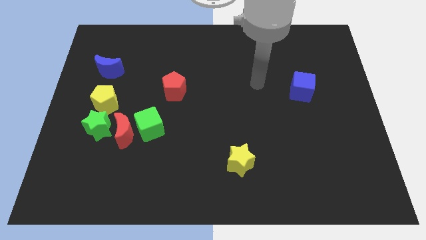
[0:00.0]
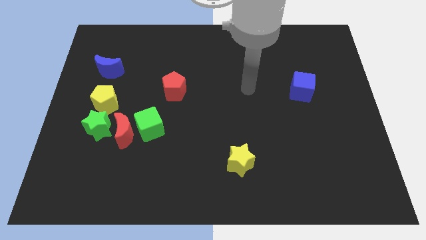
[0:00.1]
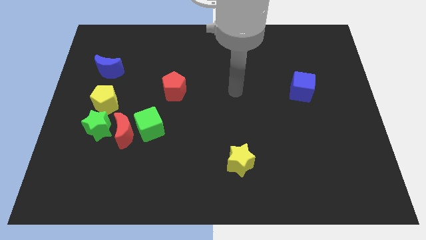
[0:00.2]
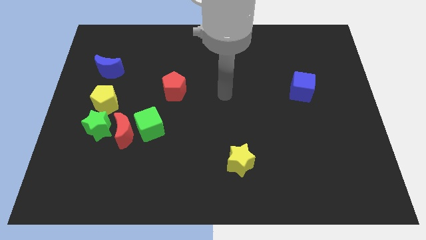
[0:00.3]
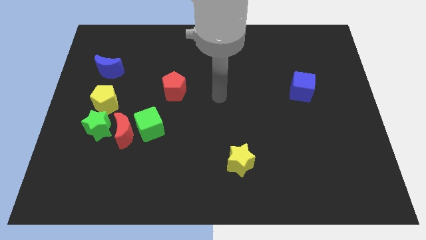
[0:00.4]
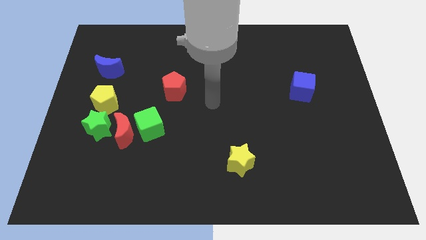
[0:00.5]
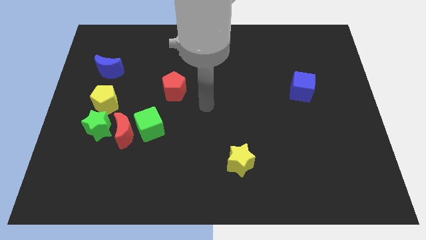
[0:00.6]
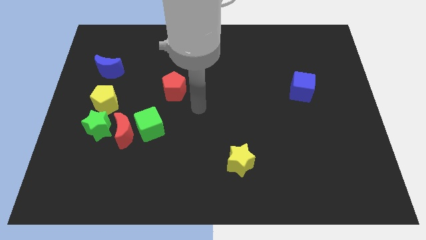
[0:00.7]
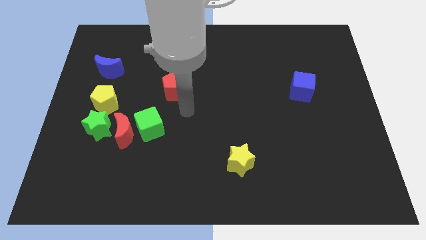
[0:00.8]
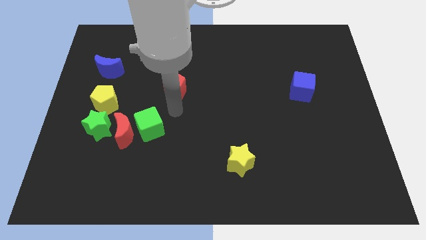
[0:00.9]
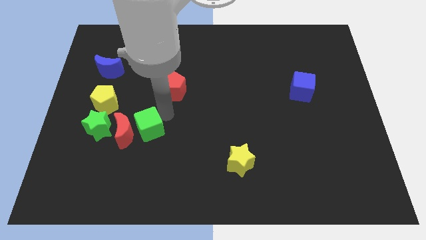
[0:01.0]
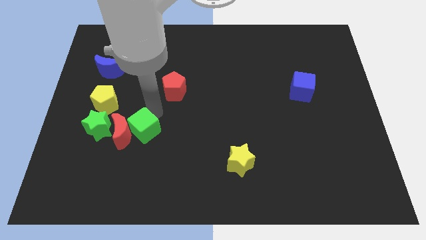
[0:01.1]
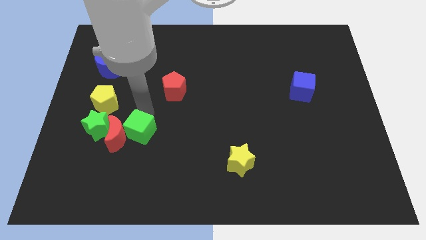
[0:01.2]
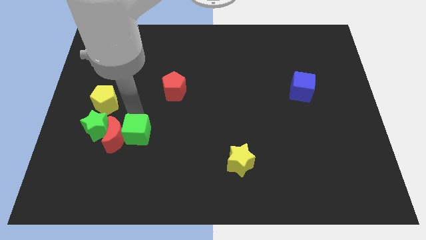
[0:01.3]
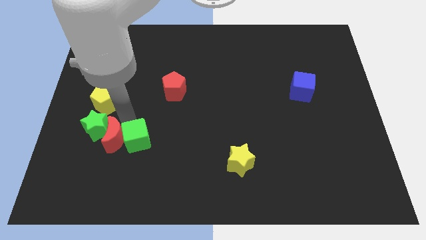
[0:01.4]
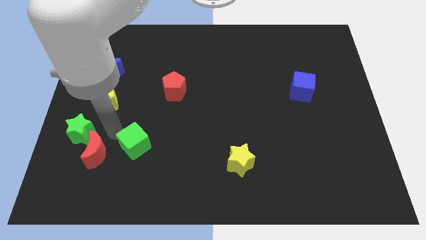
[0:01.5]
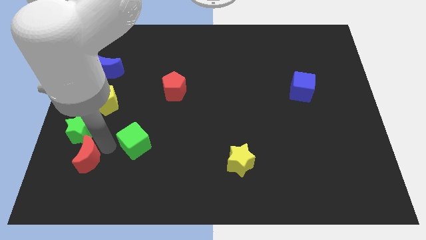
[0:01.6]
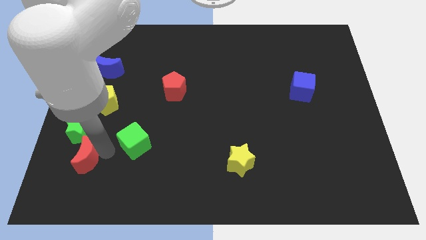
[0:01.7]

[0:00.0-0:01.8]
pull the green cube apart from the red moon

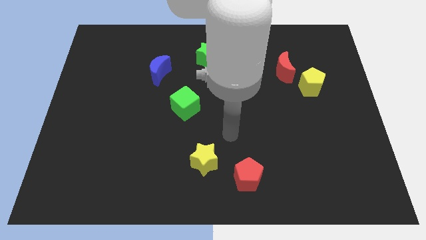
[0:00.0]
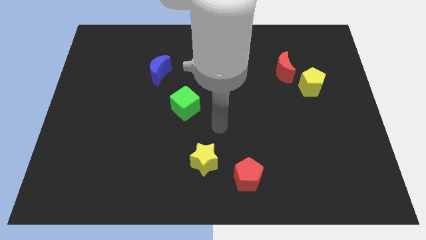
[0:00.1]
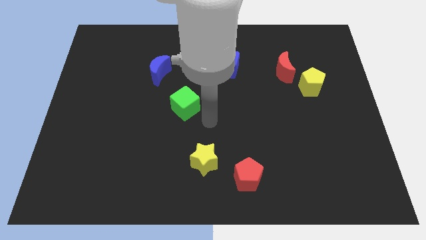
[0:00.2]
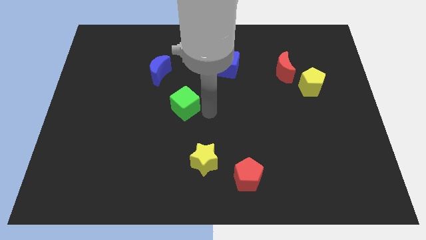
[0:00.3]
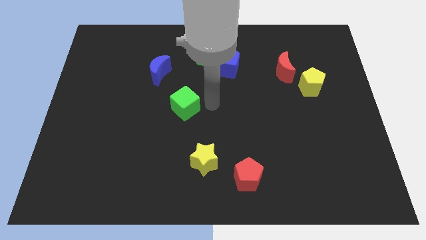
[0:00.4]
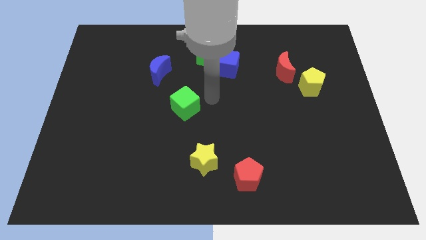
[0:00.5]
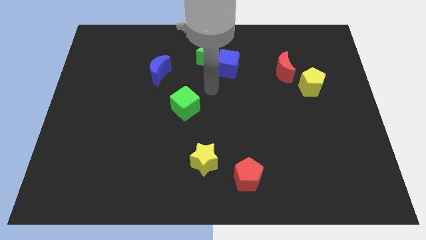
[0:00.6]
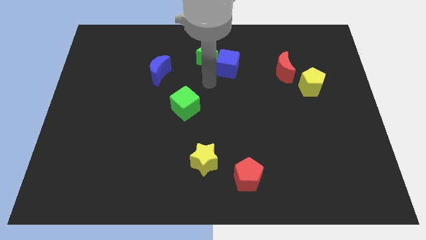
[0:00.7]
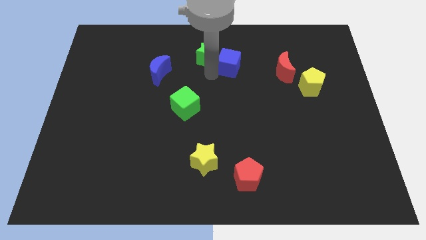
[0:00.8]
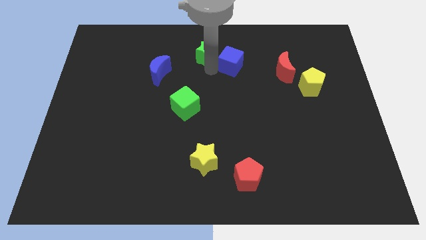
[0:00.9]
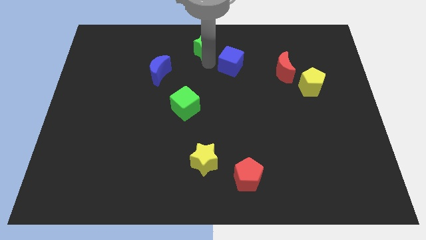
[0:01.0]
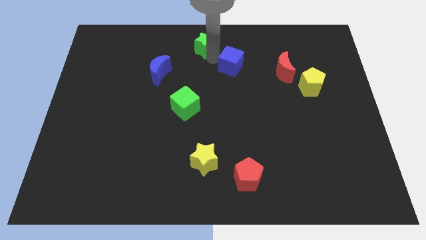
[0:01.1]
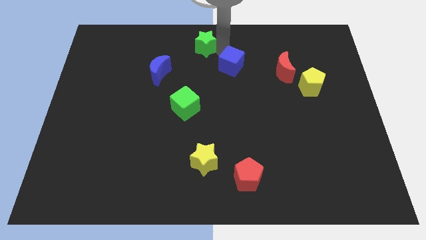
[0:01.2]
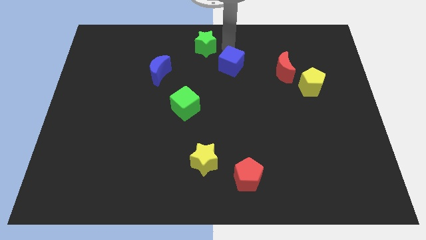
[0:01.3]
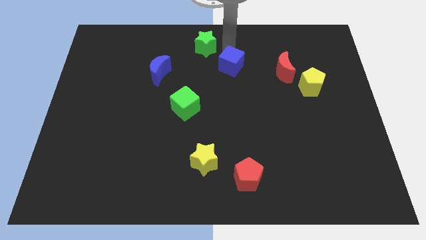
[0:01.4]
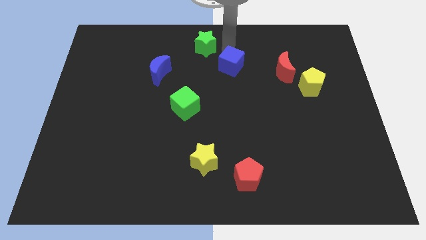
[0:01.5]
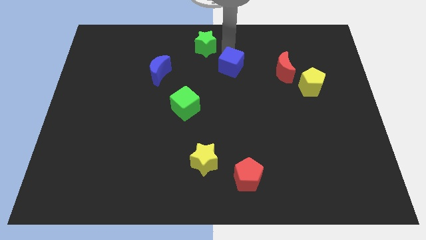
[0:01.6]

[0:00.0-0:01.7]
separate the blue cube from the green star

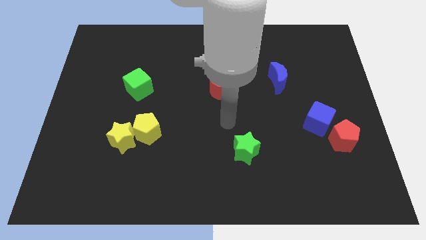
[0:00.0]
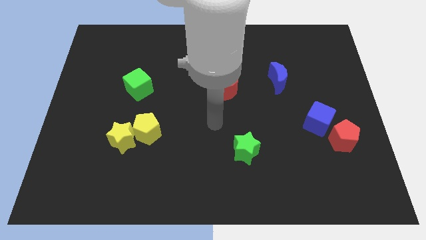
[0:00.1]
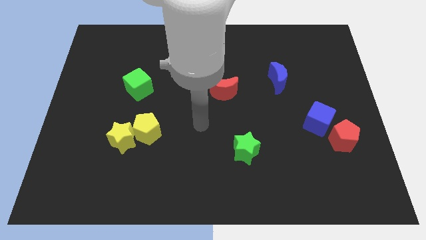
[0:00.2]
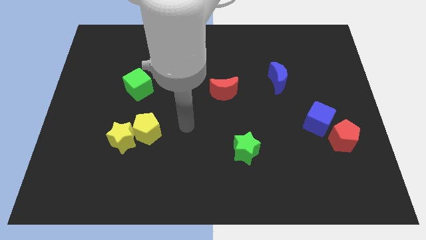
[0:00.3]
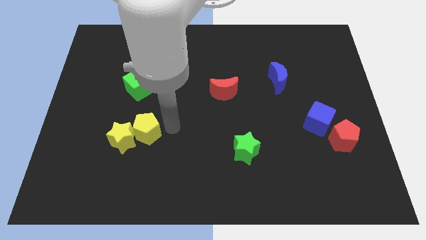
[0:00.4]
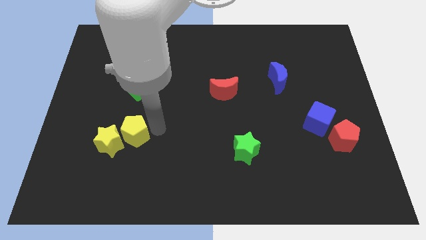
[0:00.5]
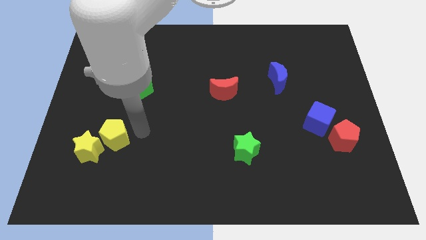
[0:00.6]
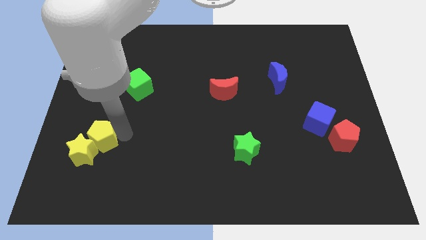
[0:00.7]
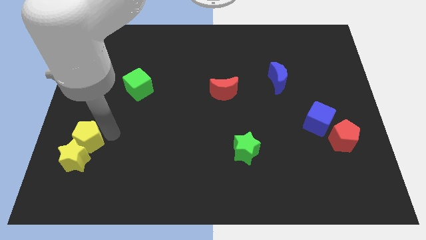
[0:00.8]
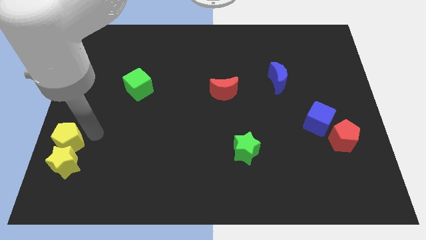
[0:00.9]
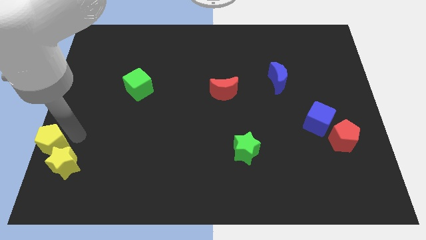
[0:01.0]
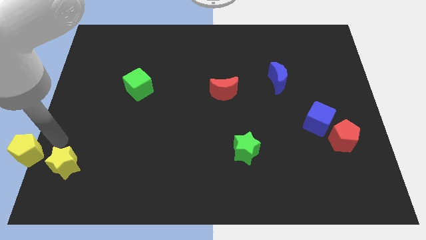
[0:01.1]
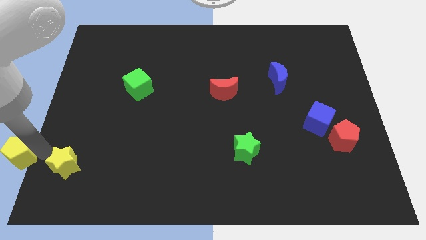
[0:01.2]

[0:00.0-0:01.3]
pull the yellow star apart from the yellow pentagon

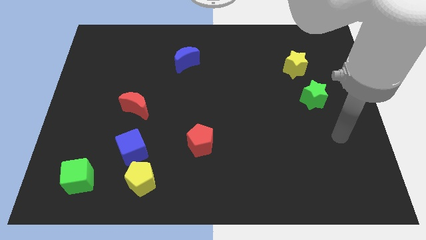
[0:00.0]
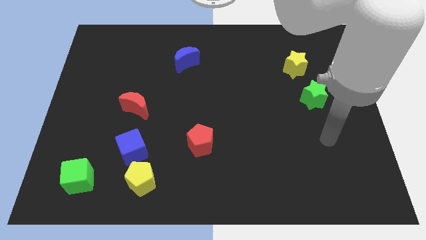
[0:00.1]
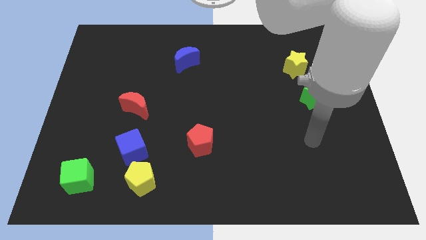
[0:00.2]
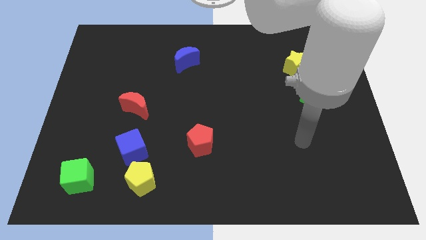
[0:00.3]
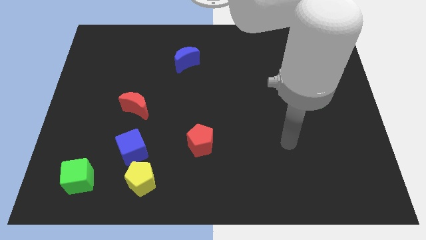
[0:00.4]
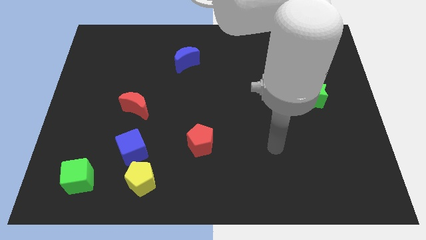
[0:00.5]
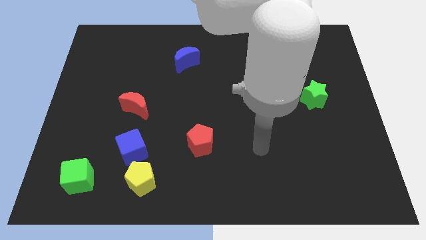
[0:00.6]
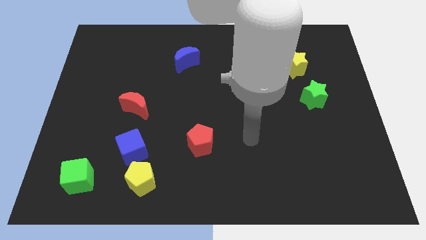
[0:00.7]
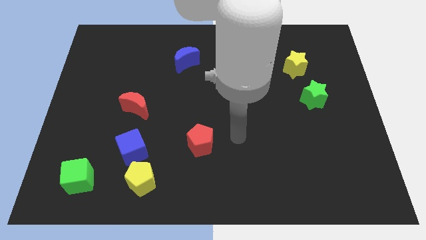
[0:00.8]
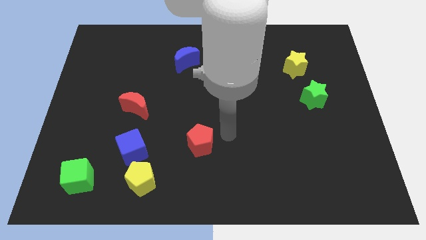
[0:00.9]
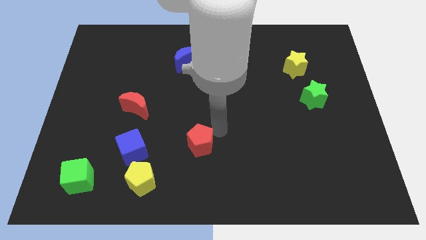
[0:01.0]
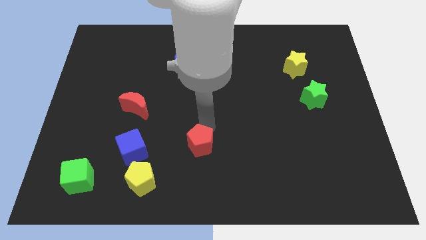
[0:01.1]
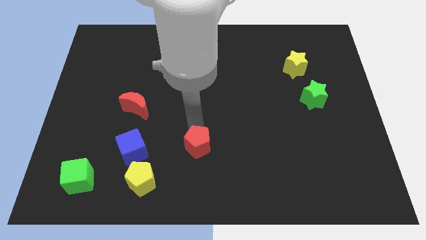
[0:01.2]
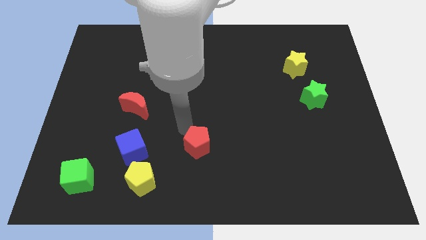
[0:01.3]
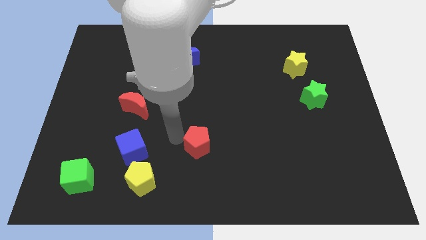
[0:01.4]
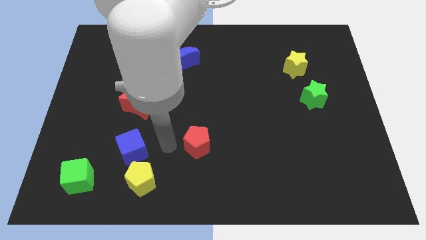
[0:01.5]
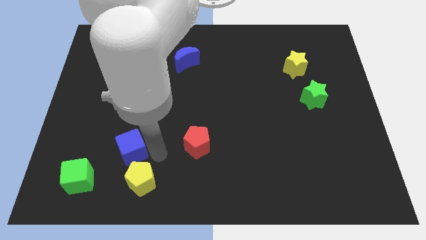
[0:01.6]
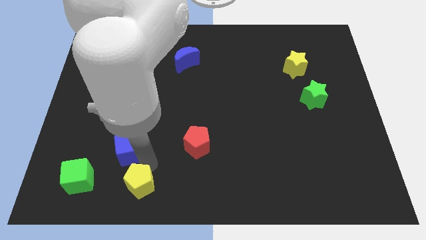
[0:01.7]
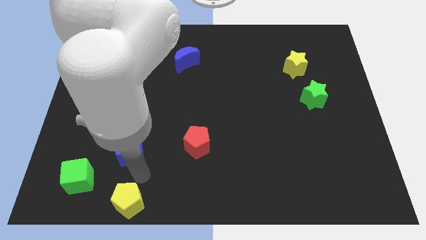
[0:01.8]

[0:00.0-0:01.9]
move the blue cube away from the yellow pentagon

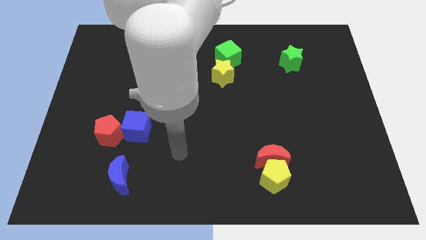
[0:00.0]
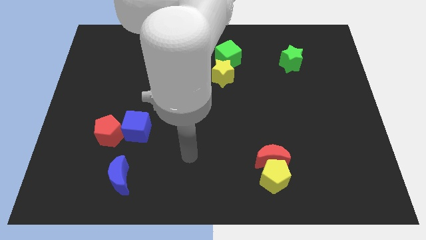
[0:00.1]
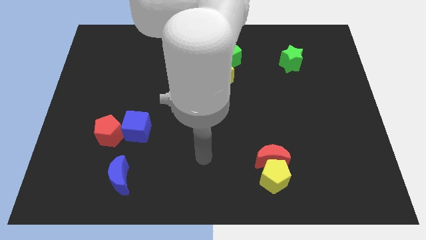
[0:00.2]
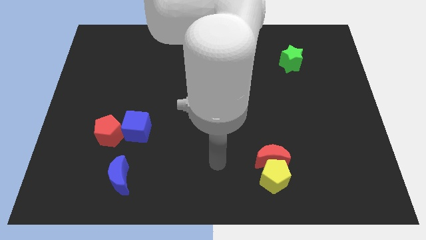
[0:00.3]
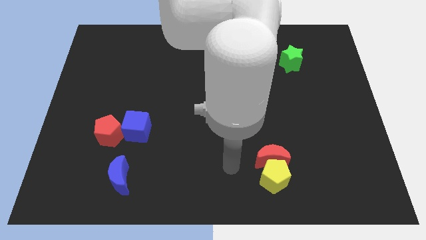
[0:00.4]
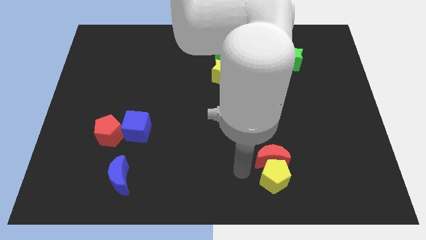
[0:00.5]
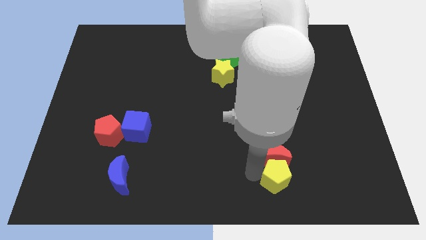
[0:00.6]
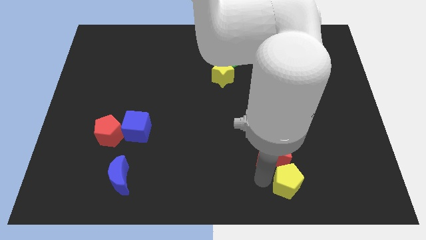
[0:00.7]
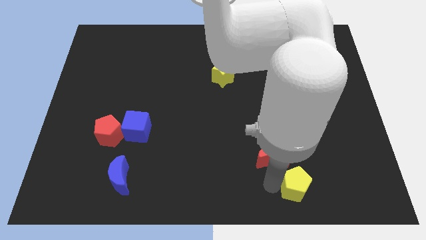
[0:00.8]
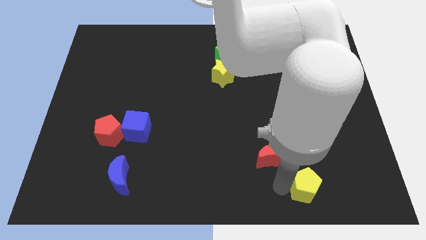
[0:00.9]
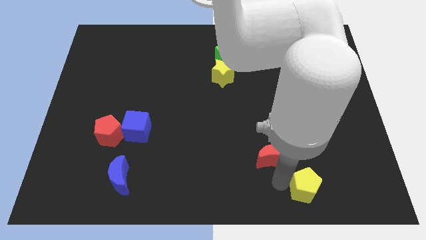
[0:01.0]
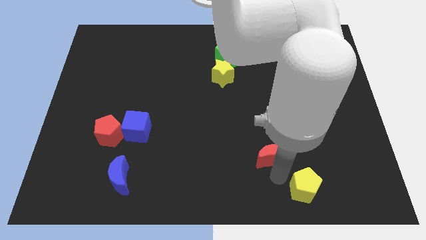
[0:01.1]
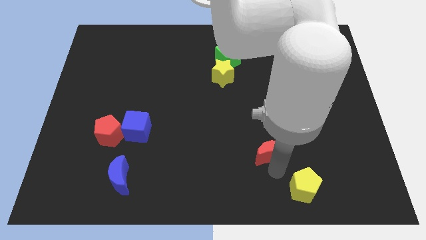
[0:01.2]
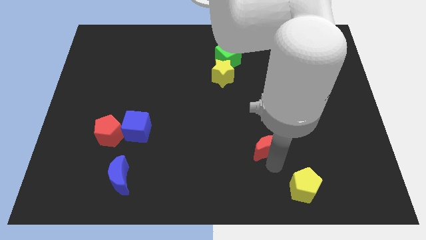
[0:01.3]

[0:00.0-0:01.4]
pull the red moon apart from the yellow pentagon

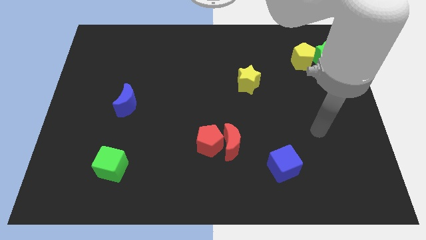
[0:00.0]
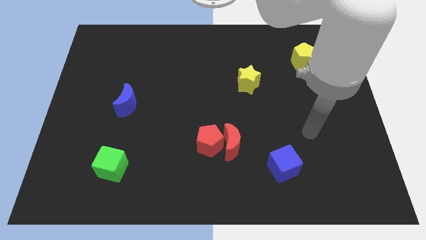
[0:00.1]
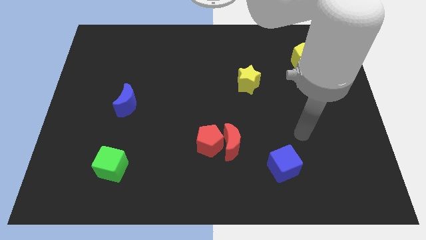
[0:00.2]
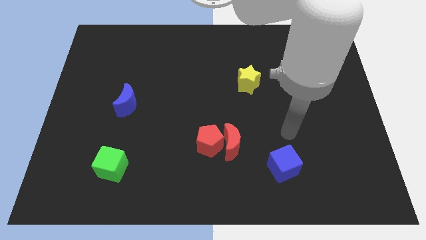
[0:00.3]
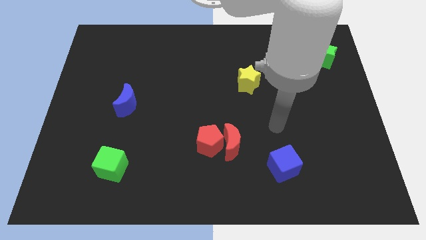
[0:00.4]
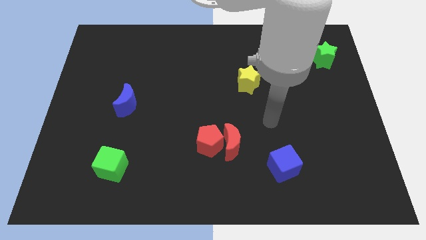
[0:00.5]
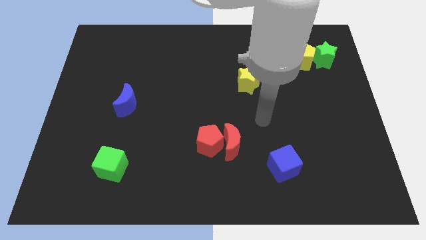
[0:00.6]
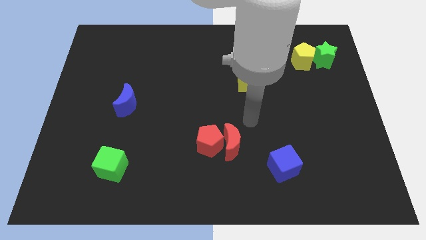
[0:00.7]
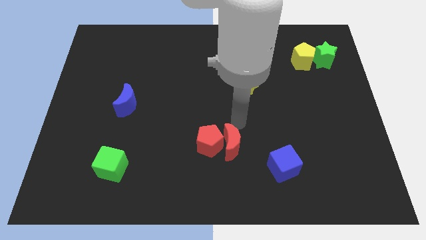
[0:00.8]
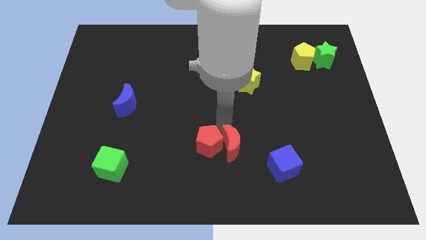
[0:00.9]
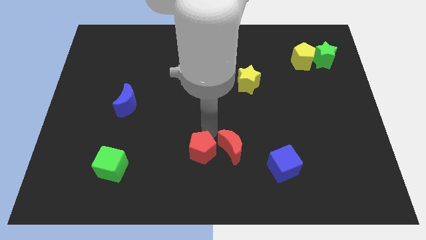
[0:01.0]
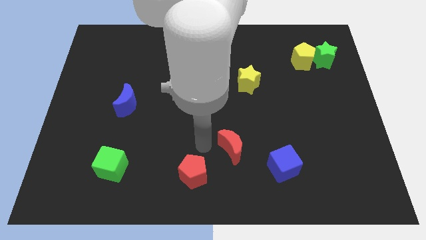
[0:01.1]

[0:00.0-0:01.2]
move the red moon away from the red pentagon

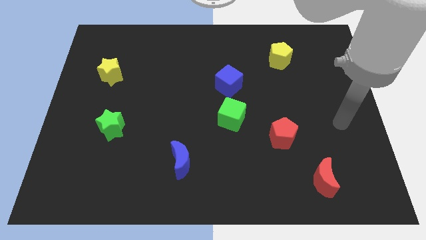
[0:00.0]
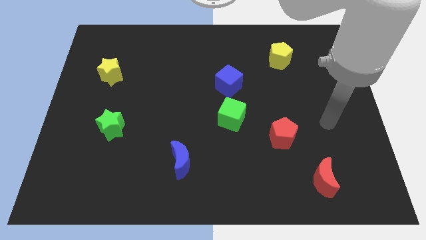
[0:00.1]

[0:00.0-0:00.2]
move the blue cube away from the green cube
